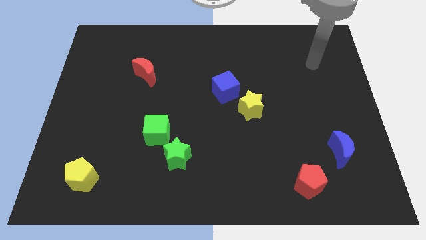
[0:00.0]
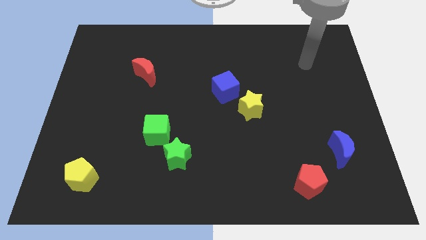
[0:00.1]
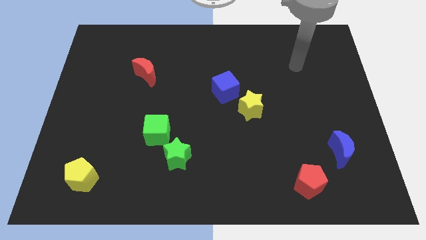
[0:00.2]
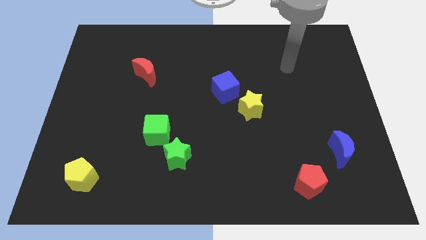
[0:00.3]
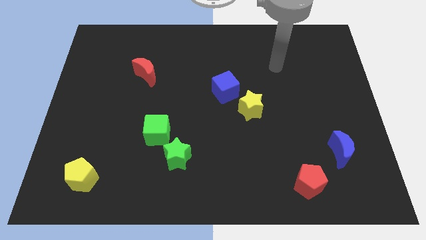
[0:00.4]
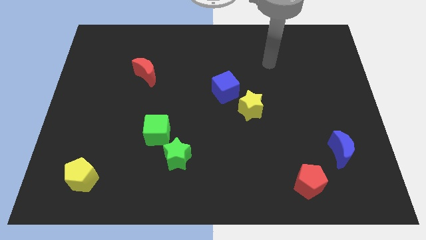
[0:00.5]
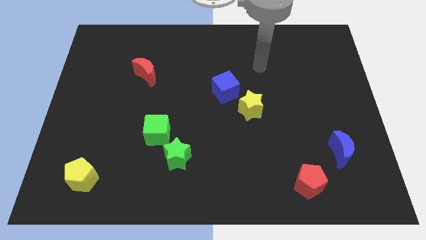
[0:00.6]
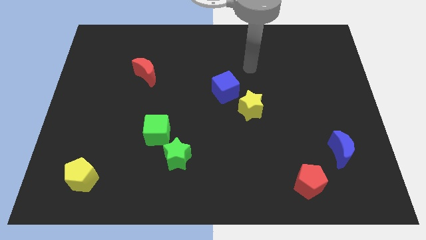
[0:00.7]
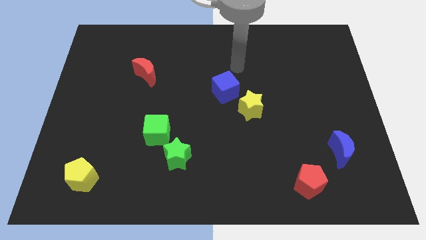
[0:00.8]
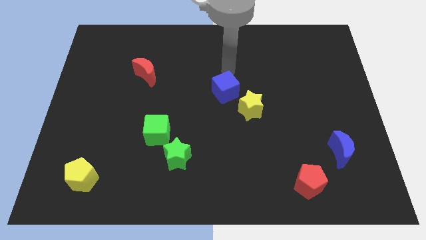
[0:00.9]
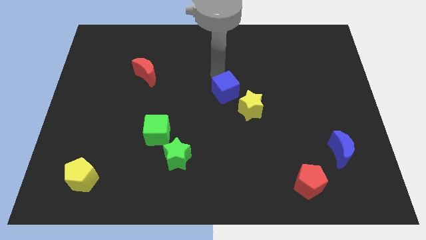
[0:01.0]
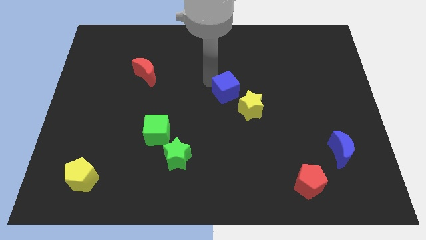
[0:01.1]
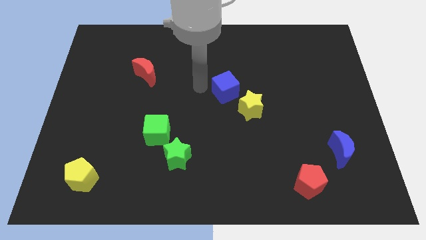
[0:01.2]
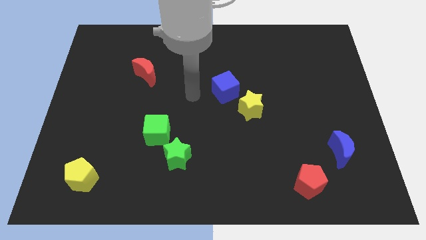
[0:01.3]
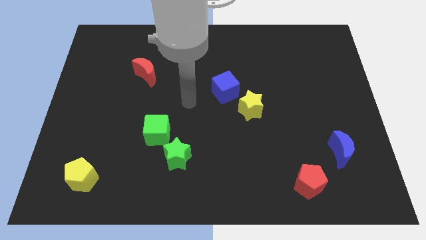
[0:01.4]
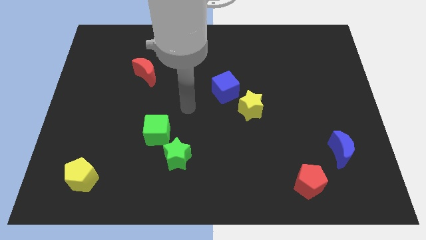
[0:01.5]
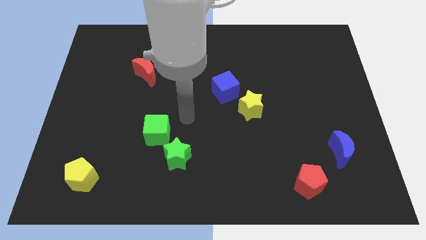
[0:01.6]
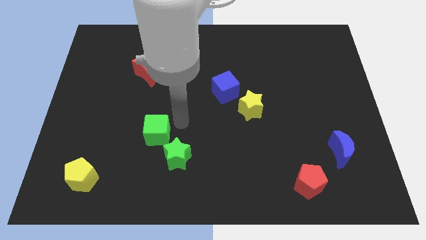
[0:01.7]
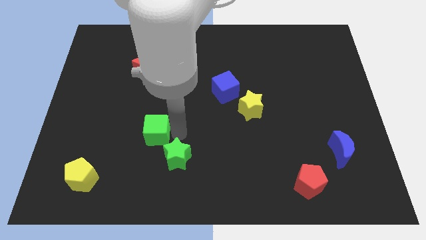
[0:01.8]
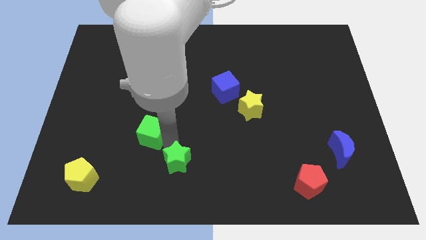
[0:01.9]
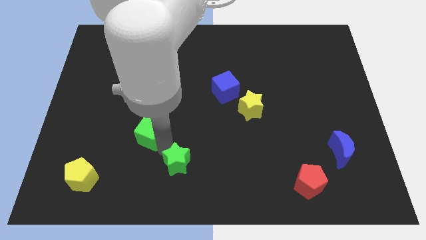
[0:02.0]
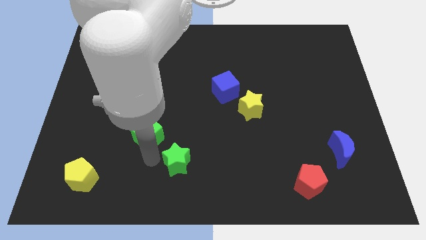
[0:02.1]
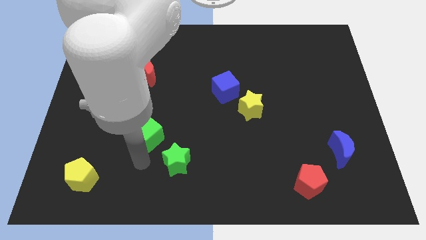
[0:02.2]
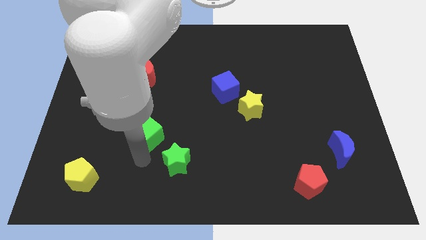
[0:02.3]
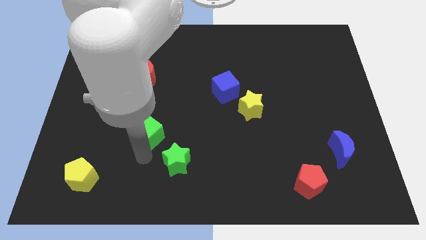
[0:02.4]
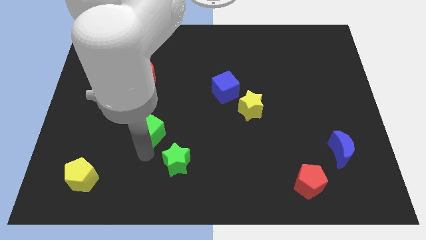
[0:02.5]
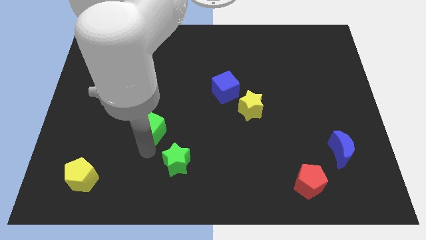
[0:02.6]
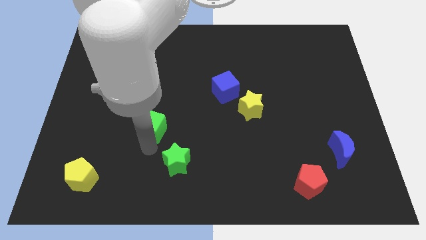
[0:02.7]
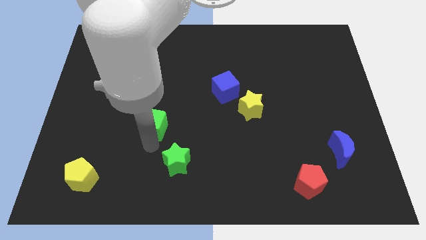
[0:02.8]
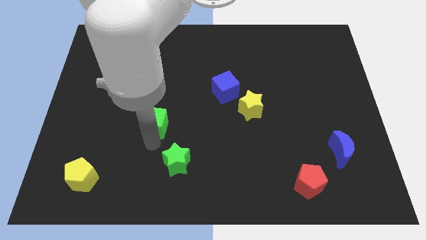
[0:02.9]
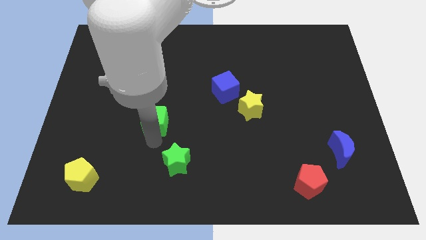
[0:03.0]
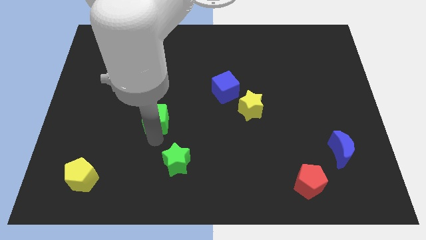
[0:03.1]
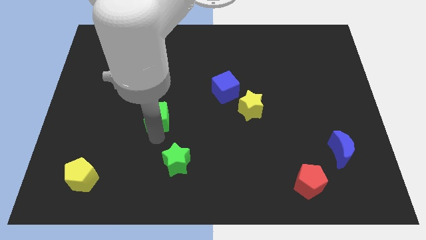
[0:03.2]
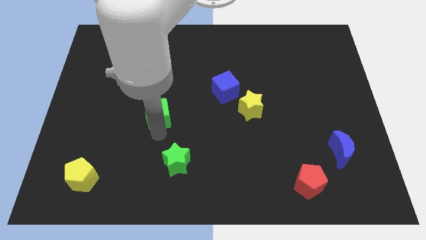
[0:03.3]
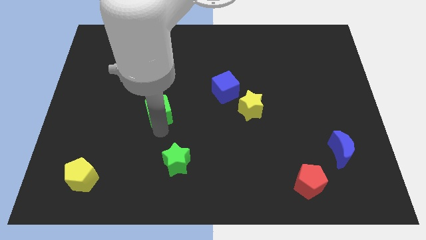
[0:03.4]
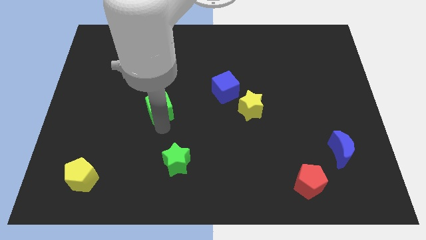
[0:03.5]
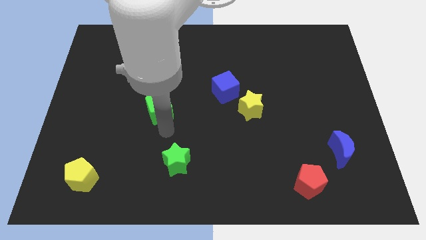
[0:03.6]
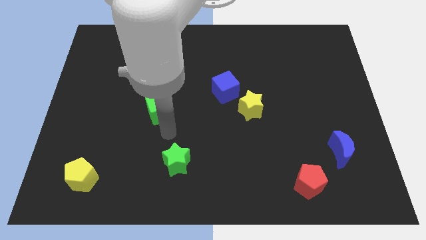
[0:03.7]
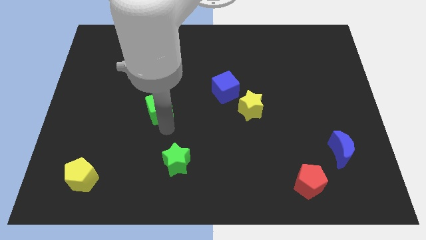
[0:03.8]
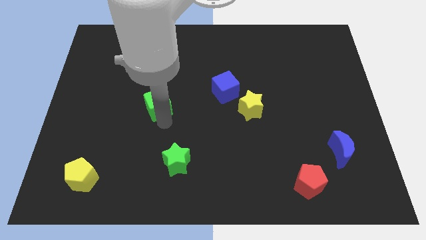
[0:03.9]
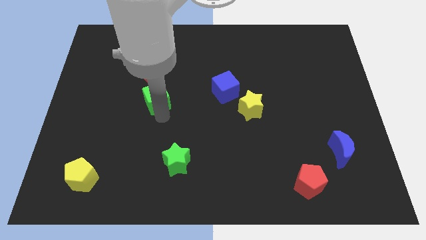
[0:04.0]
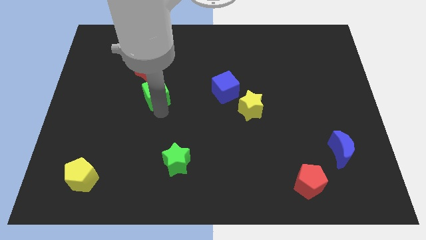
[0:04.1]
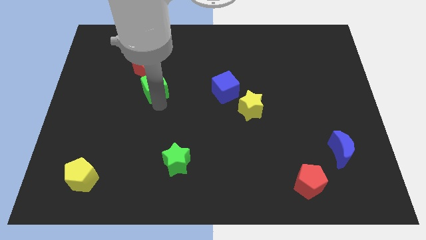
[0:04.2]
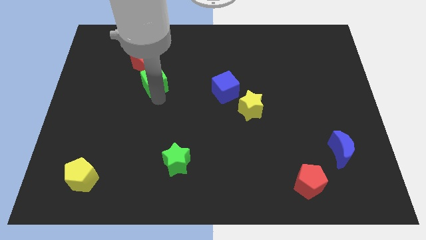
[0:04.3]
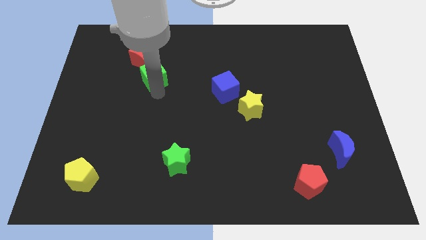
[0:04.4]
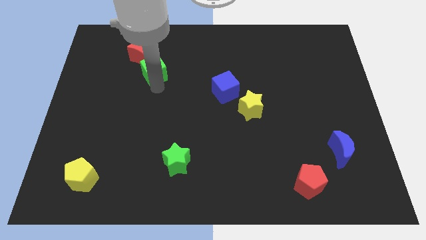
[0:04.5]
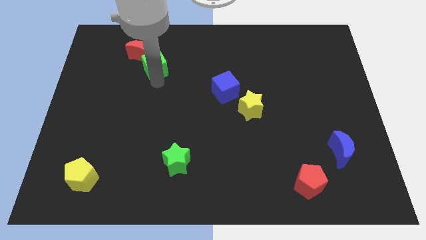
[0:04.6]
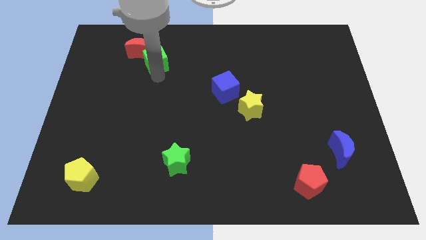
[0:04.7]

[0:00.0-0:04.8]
slide the green cube next to the red moon

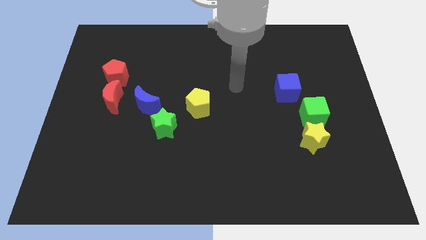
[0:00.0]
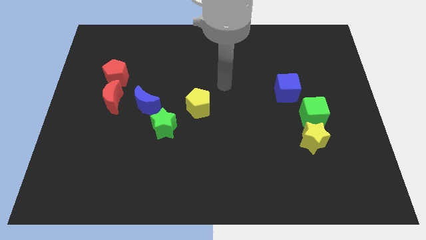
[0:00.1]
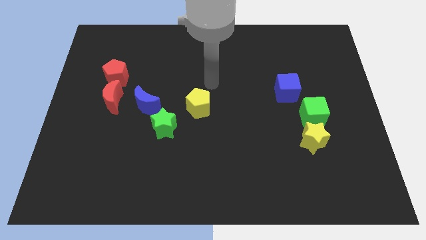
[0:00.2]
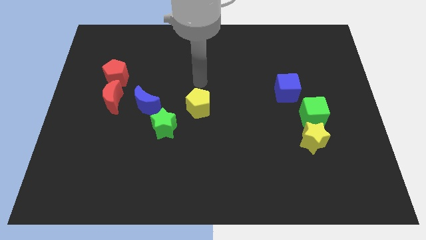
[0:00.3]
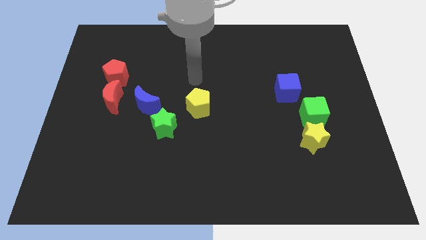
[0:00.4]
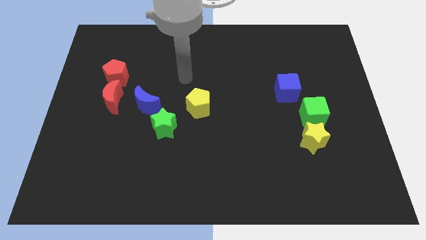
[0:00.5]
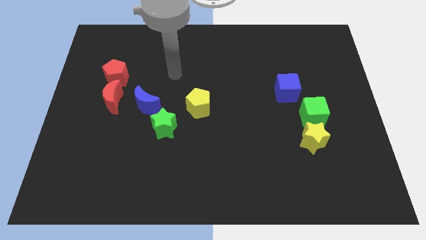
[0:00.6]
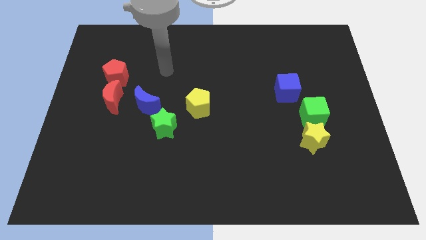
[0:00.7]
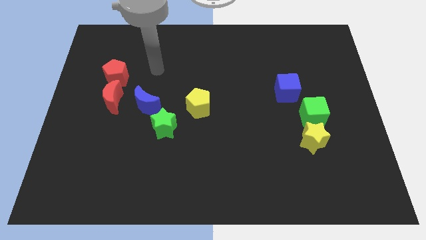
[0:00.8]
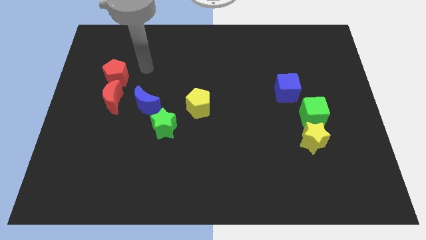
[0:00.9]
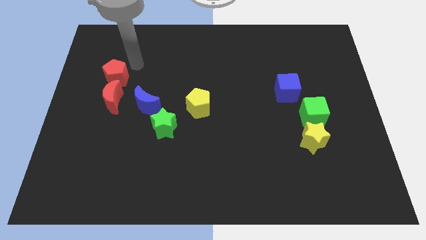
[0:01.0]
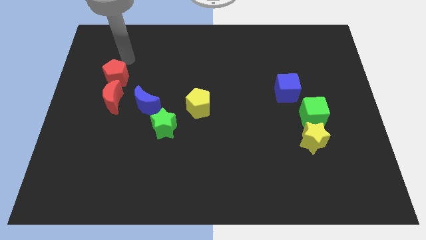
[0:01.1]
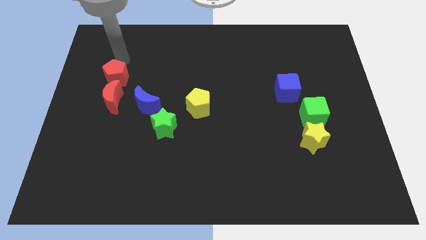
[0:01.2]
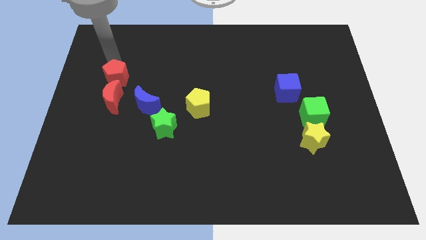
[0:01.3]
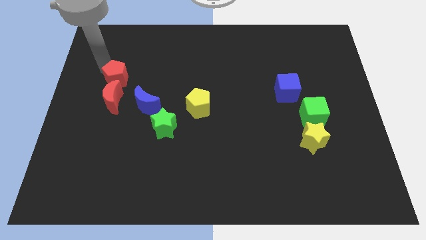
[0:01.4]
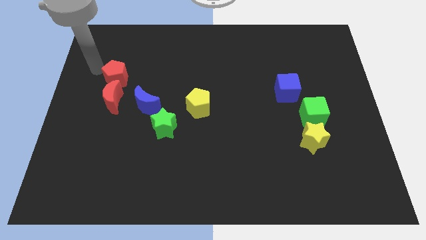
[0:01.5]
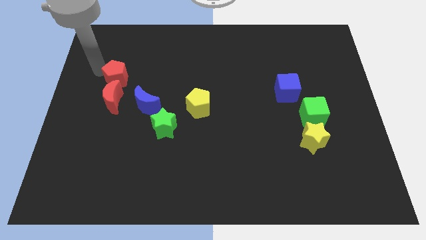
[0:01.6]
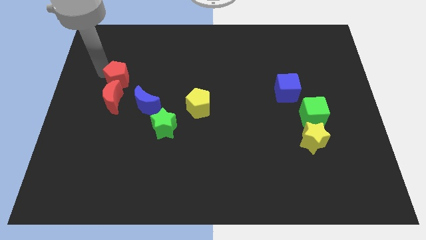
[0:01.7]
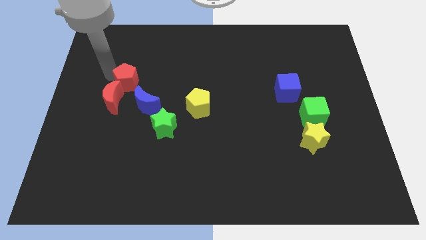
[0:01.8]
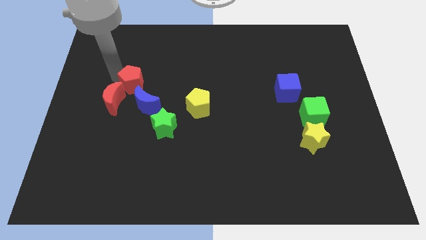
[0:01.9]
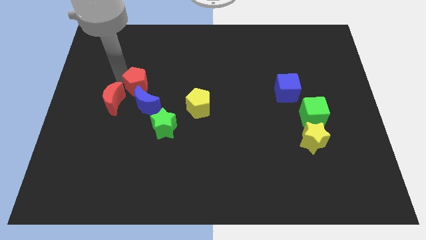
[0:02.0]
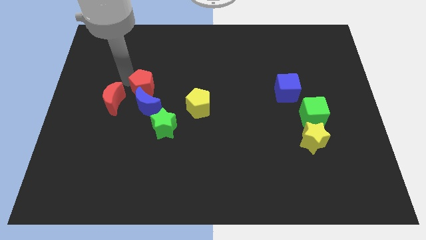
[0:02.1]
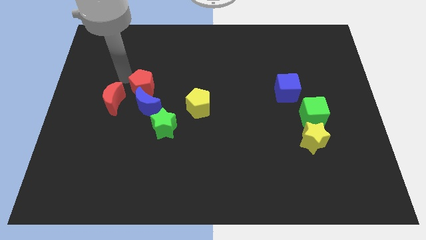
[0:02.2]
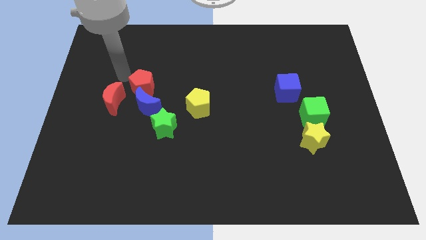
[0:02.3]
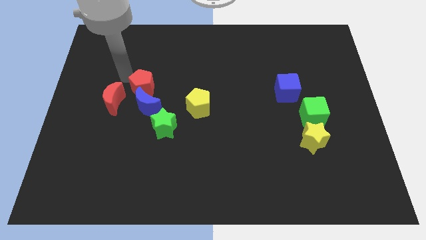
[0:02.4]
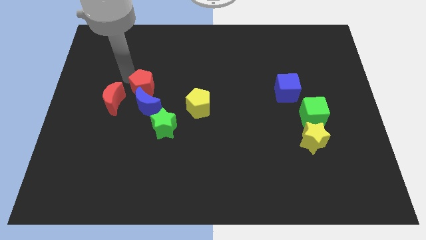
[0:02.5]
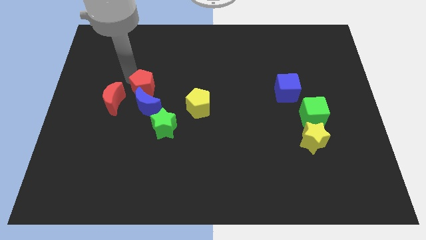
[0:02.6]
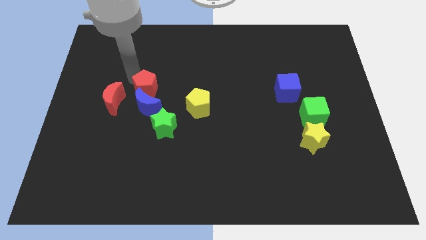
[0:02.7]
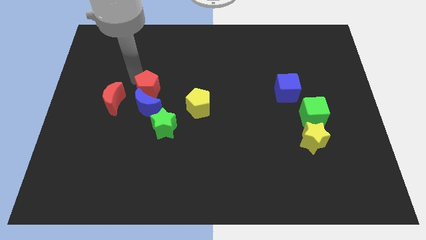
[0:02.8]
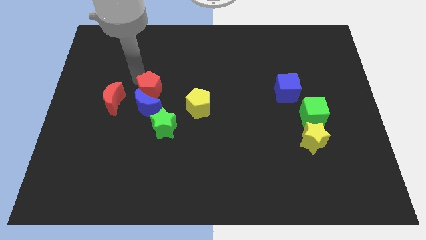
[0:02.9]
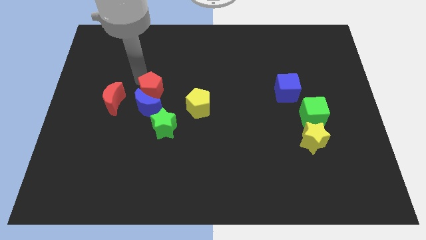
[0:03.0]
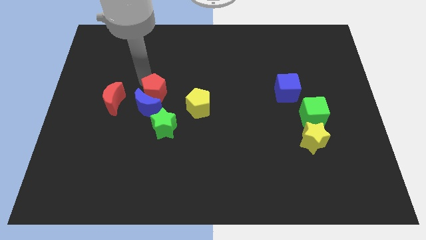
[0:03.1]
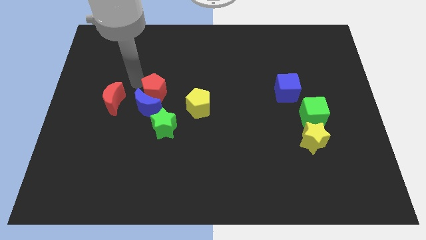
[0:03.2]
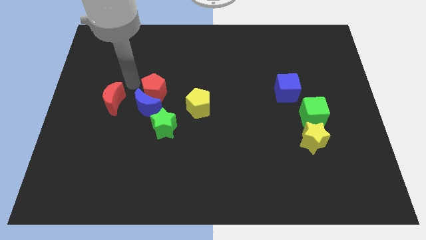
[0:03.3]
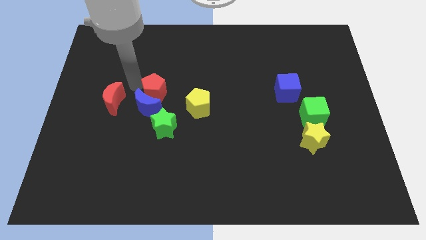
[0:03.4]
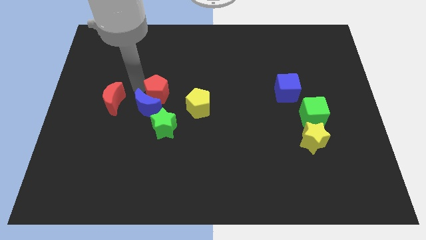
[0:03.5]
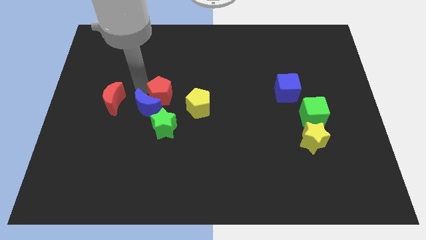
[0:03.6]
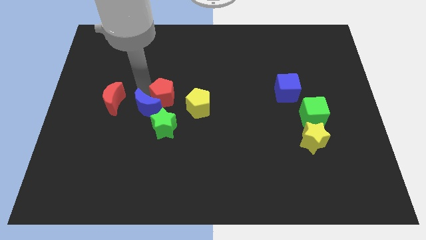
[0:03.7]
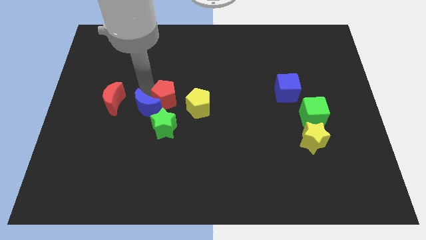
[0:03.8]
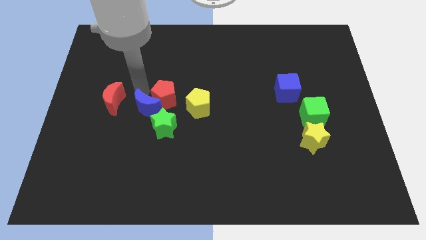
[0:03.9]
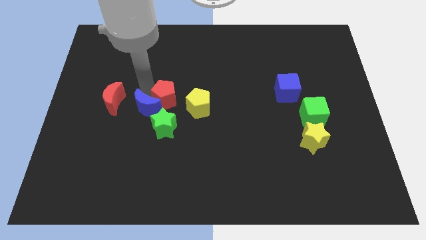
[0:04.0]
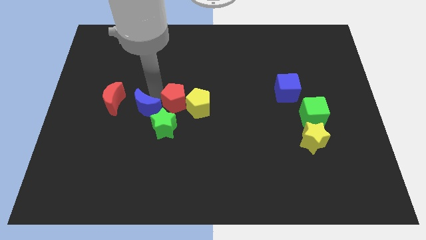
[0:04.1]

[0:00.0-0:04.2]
slide the red pentagon to the yellow pentagon
